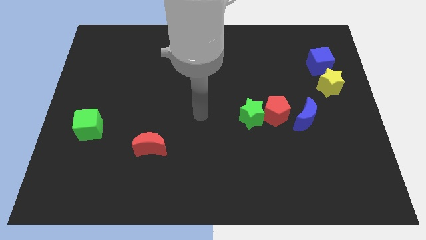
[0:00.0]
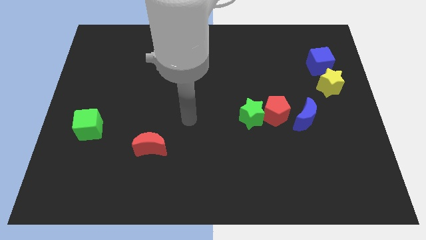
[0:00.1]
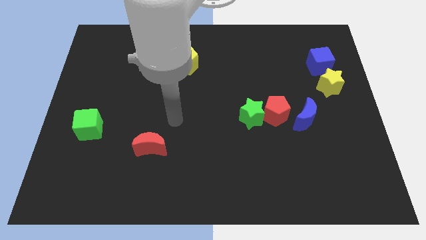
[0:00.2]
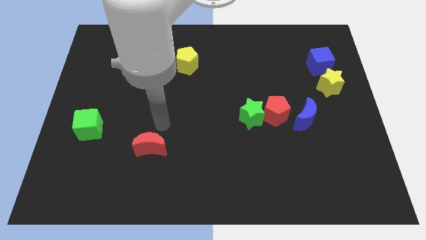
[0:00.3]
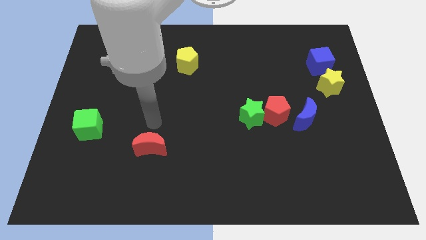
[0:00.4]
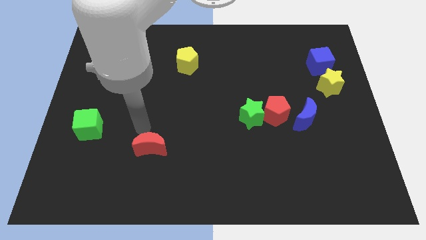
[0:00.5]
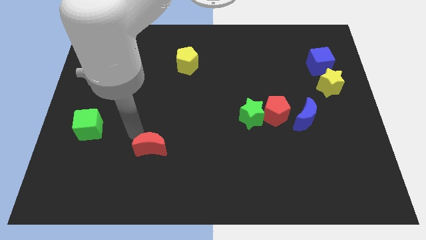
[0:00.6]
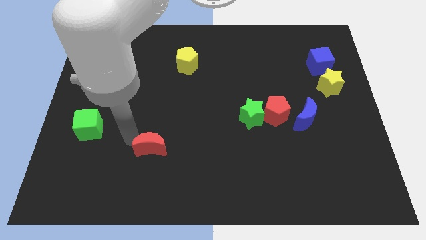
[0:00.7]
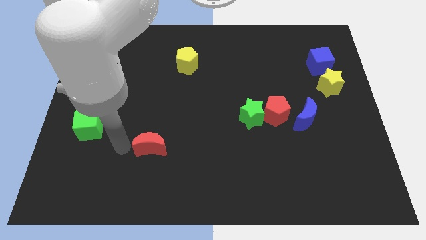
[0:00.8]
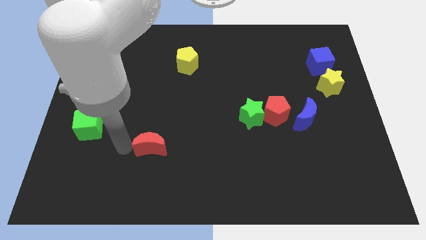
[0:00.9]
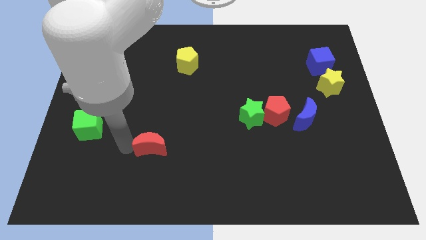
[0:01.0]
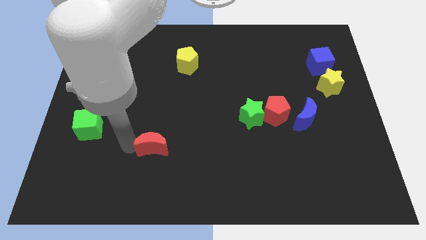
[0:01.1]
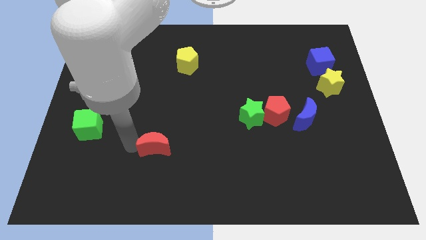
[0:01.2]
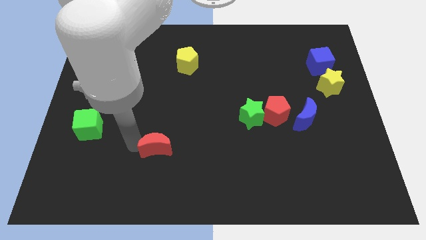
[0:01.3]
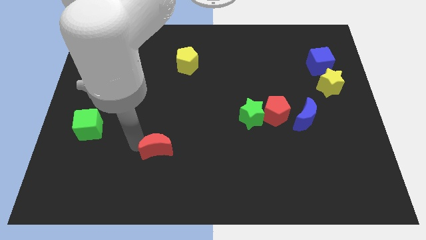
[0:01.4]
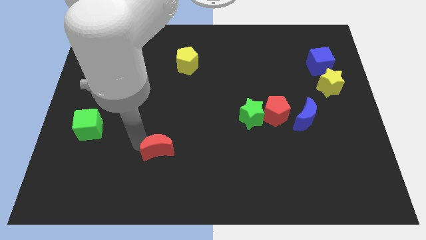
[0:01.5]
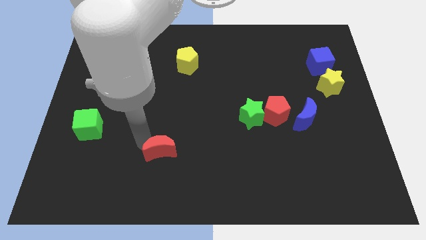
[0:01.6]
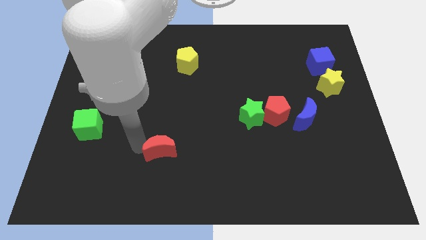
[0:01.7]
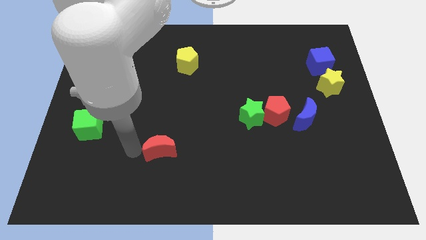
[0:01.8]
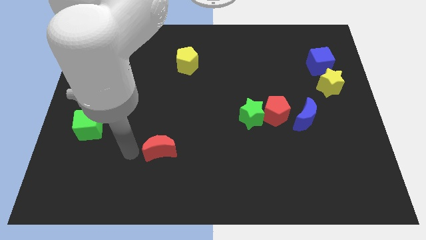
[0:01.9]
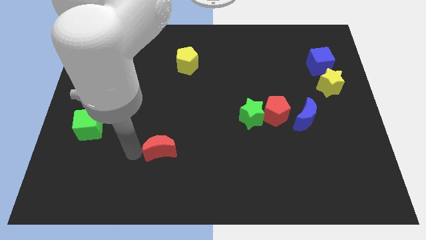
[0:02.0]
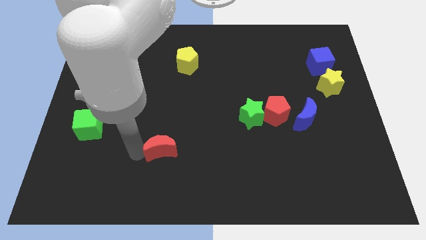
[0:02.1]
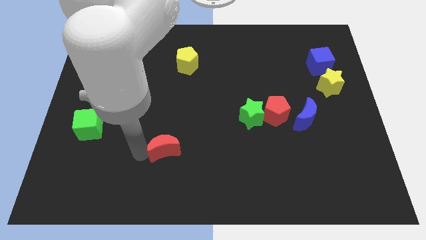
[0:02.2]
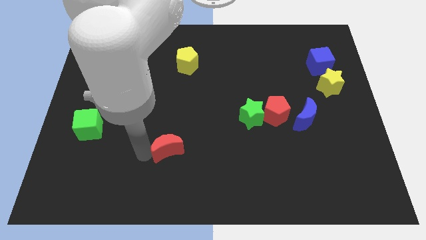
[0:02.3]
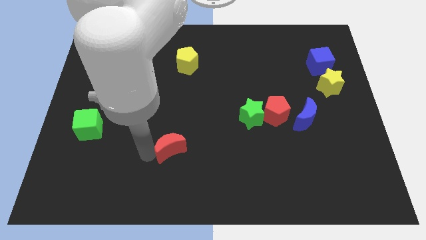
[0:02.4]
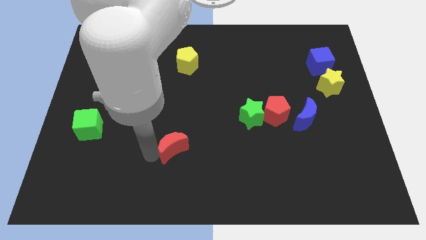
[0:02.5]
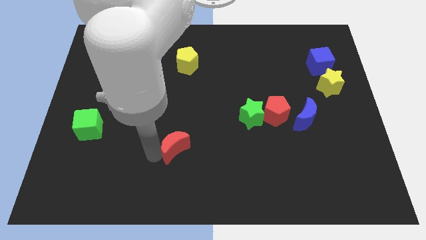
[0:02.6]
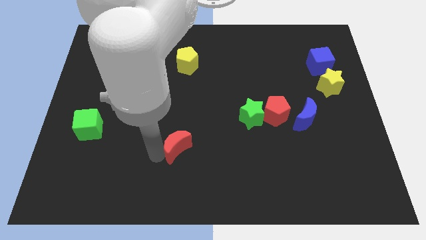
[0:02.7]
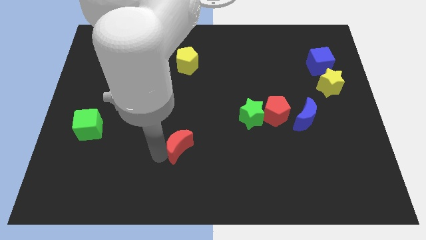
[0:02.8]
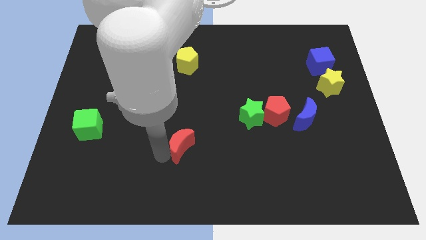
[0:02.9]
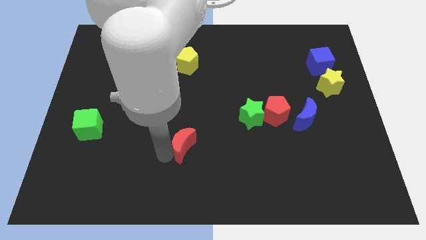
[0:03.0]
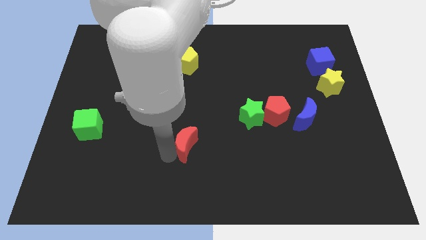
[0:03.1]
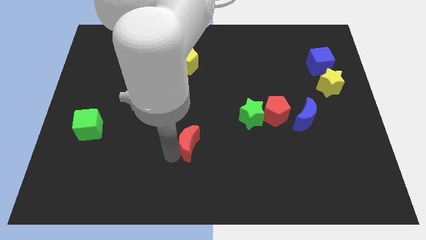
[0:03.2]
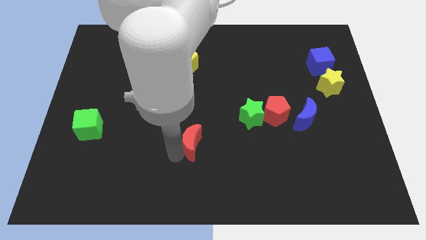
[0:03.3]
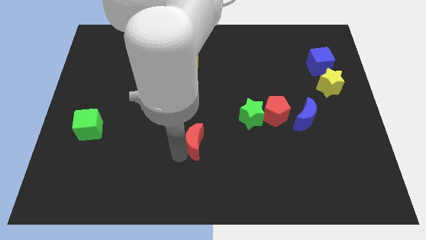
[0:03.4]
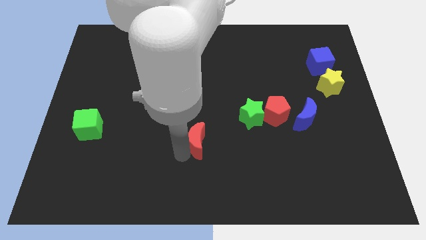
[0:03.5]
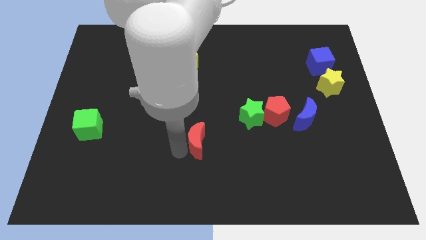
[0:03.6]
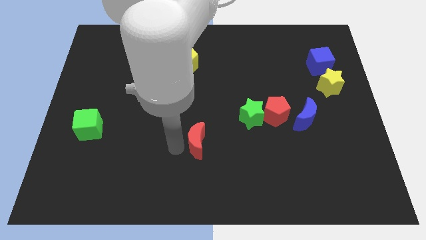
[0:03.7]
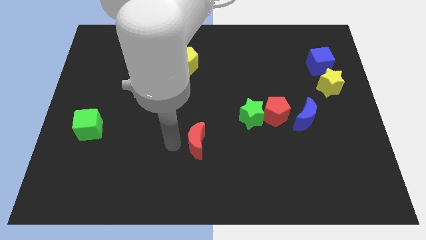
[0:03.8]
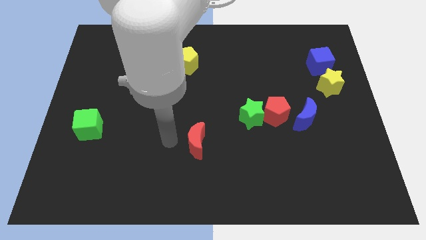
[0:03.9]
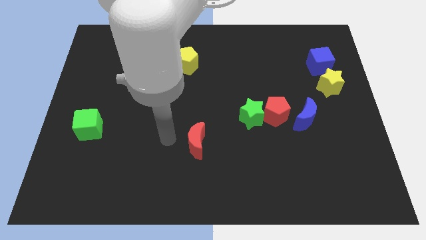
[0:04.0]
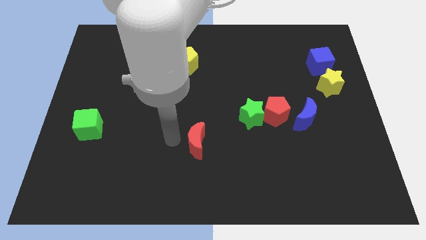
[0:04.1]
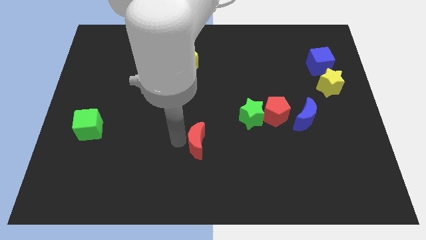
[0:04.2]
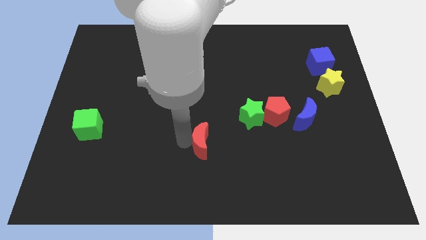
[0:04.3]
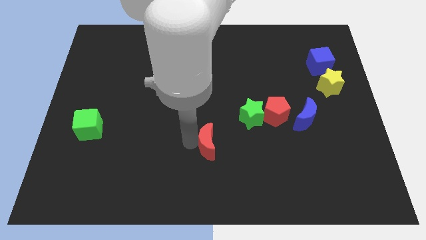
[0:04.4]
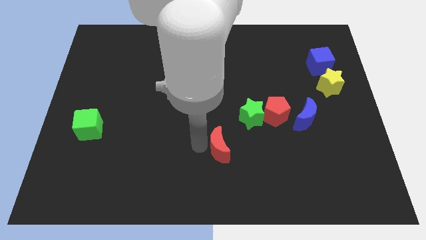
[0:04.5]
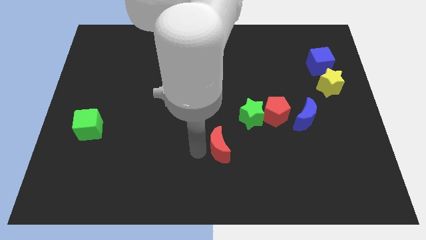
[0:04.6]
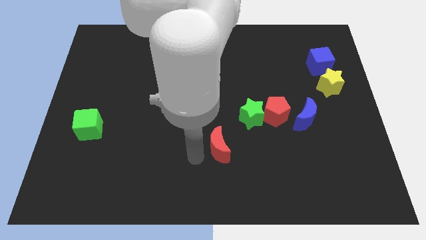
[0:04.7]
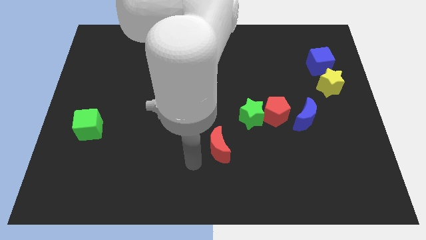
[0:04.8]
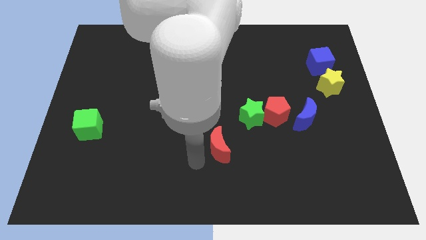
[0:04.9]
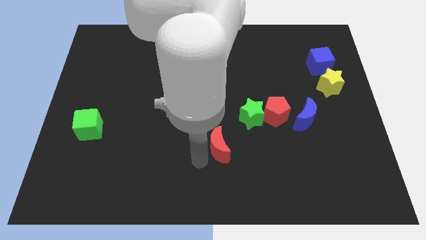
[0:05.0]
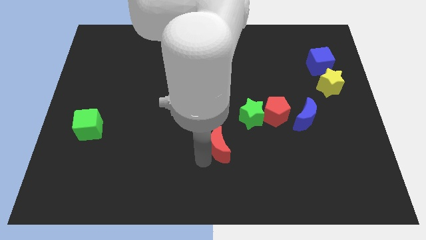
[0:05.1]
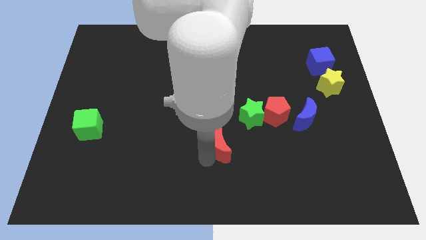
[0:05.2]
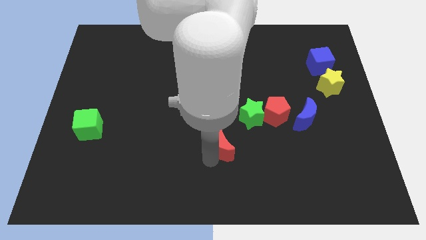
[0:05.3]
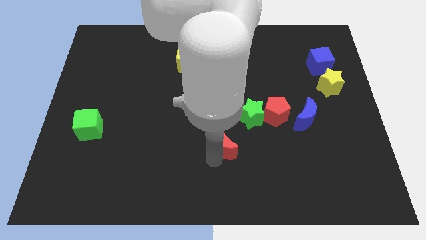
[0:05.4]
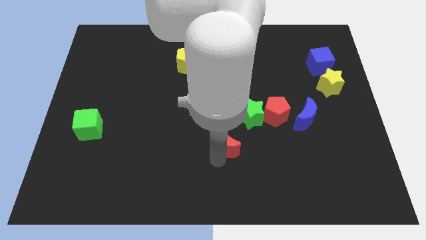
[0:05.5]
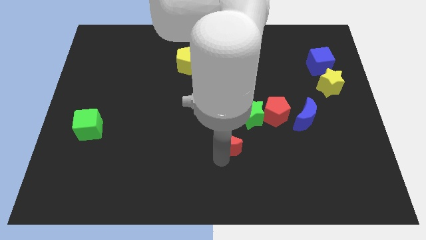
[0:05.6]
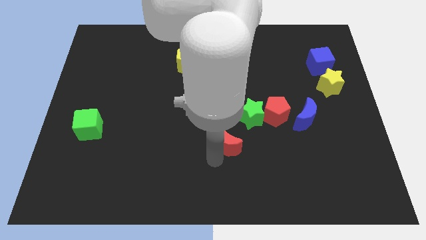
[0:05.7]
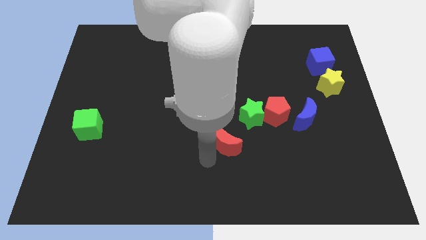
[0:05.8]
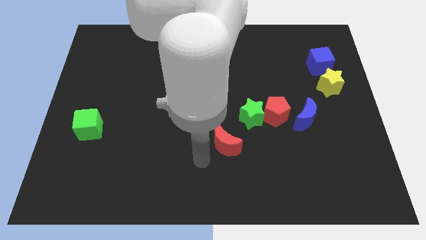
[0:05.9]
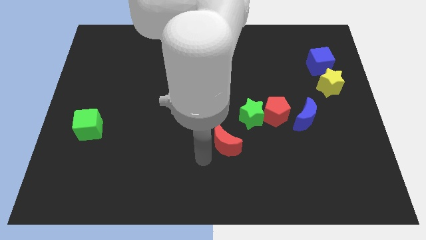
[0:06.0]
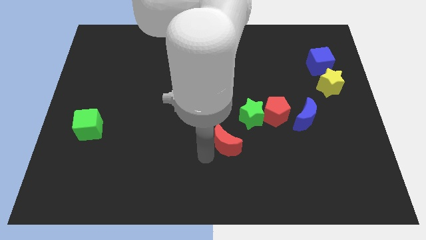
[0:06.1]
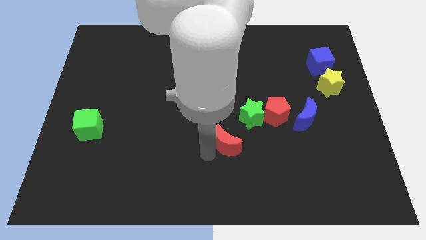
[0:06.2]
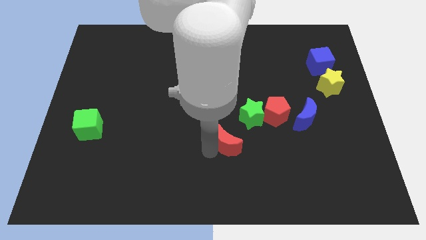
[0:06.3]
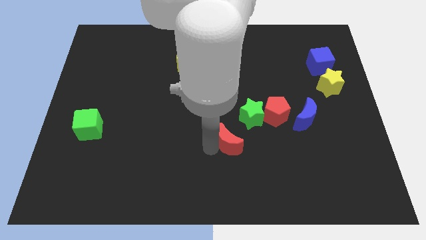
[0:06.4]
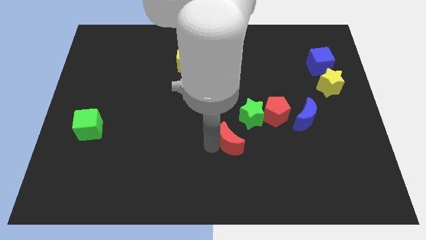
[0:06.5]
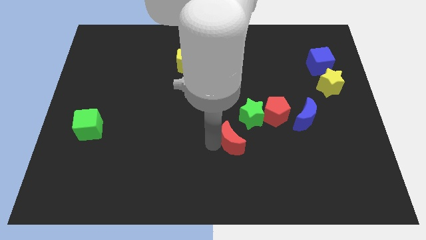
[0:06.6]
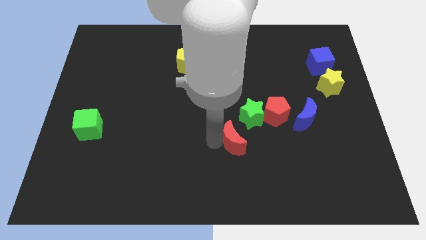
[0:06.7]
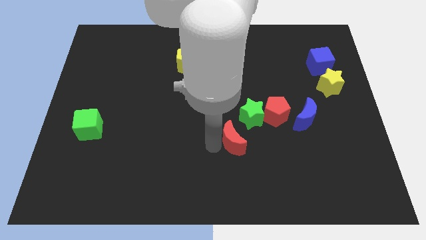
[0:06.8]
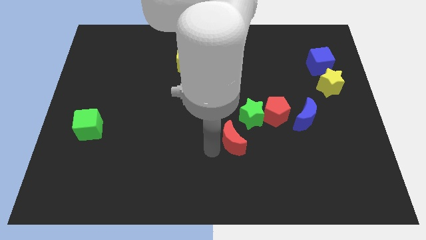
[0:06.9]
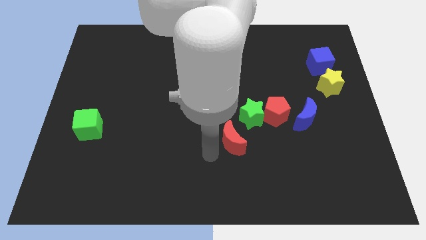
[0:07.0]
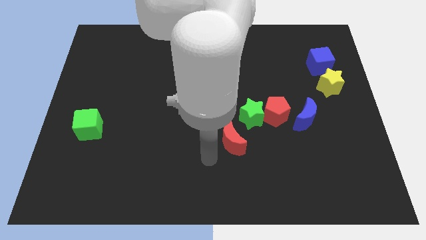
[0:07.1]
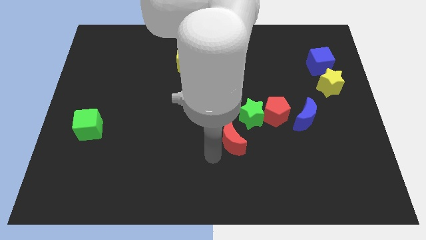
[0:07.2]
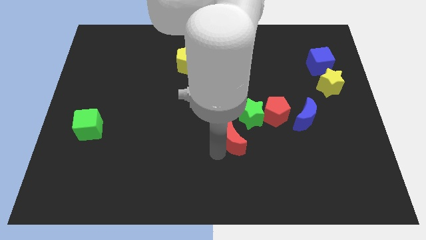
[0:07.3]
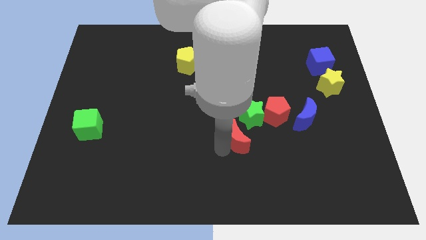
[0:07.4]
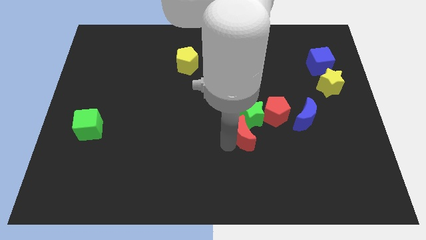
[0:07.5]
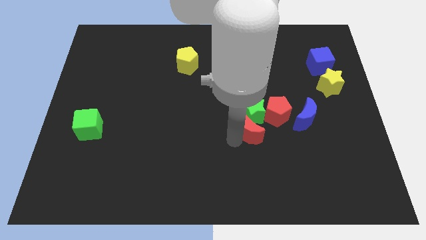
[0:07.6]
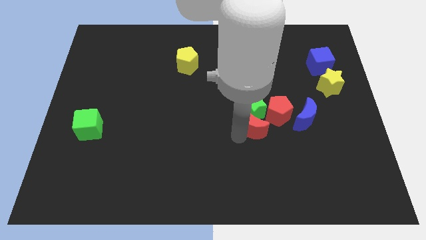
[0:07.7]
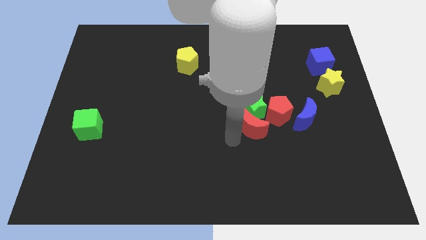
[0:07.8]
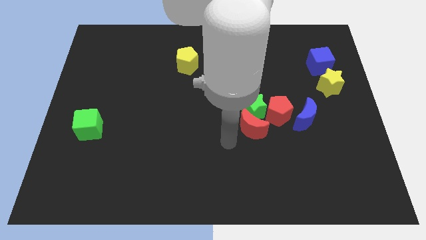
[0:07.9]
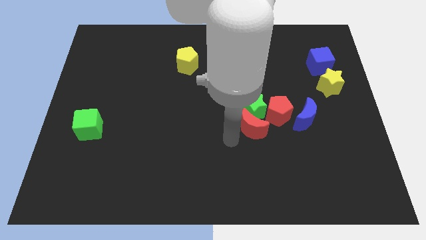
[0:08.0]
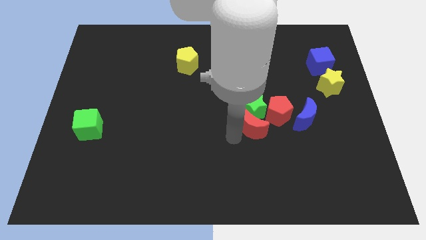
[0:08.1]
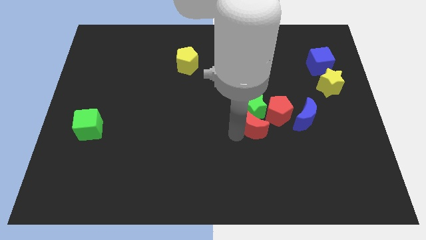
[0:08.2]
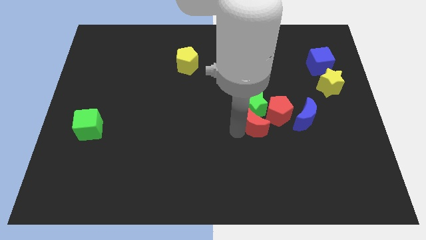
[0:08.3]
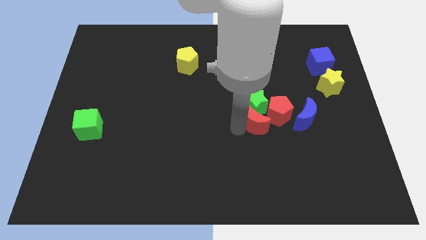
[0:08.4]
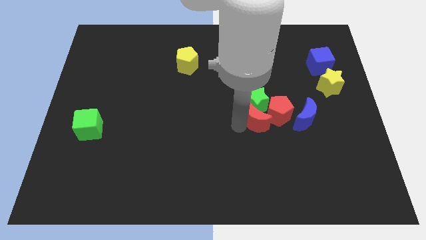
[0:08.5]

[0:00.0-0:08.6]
push the red moon towards the red pentagon
